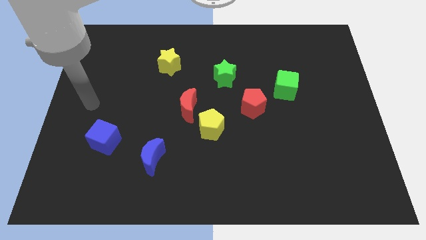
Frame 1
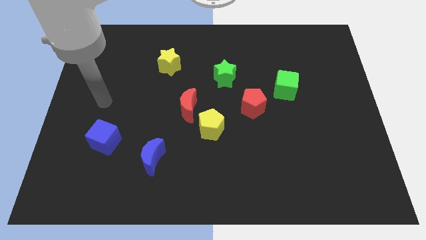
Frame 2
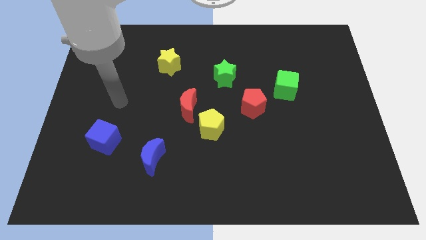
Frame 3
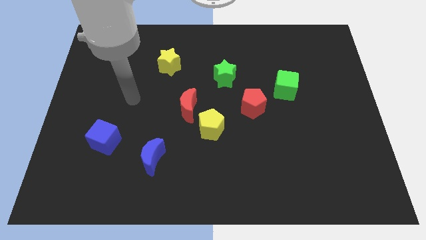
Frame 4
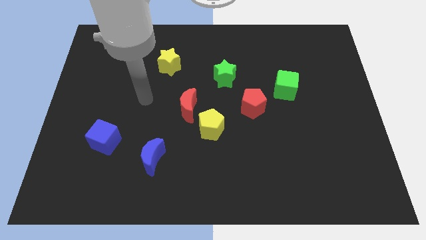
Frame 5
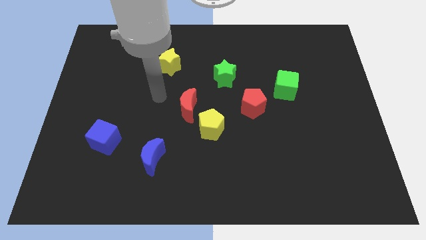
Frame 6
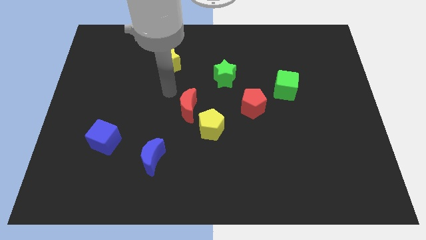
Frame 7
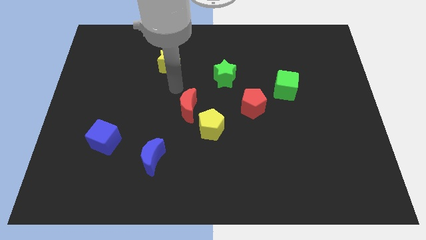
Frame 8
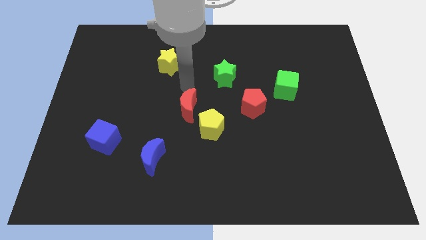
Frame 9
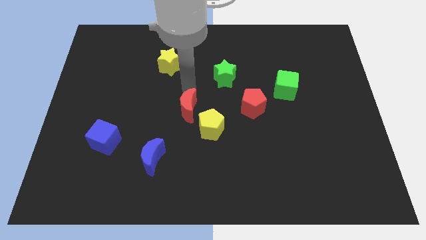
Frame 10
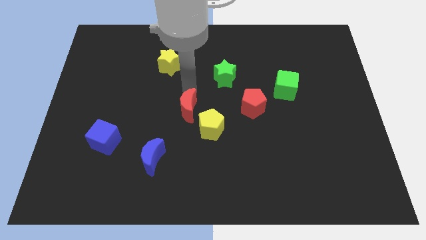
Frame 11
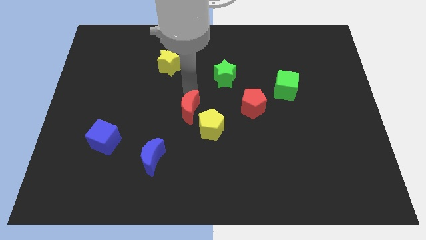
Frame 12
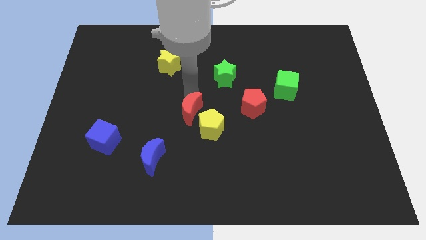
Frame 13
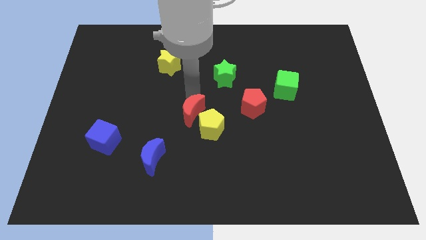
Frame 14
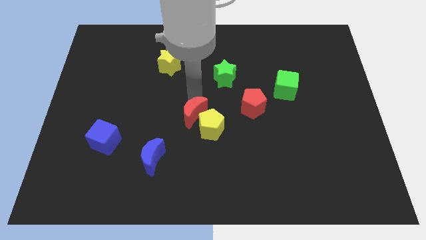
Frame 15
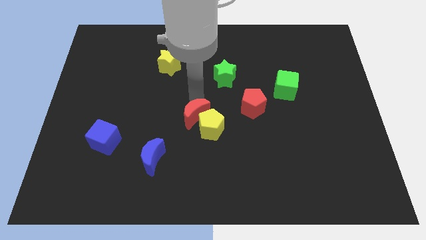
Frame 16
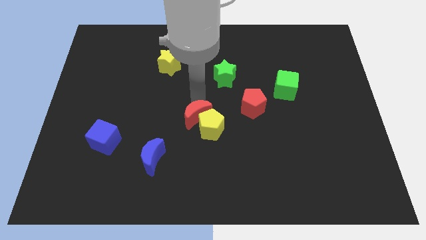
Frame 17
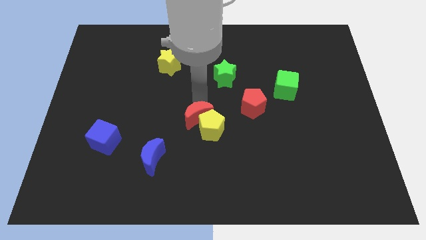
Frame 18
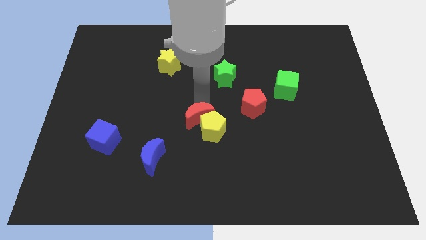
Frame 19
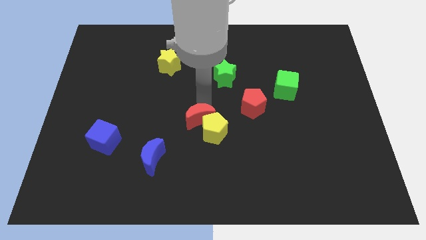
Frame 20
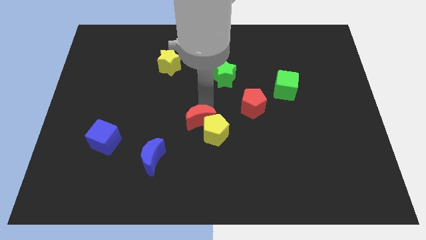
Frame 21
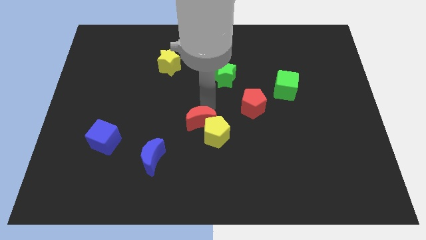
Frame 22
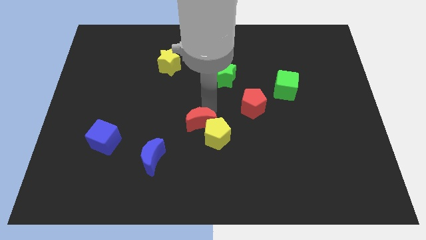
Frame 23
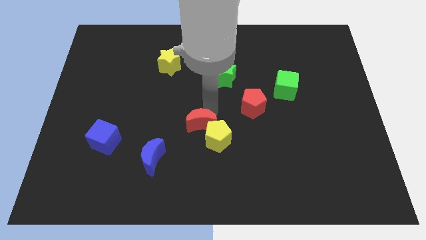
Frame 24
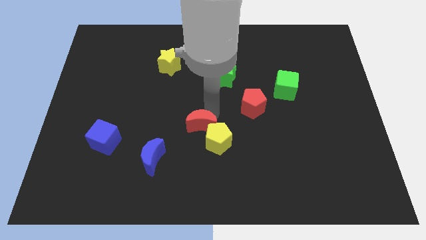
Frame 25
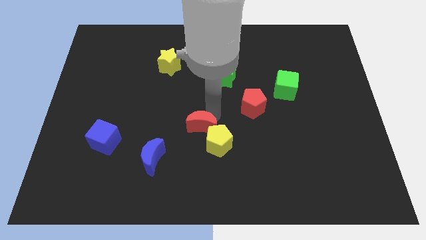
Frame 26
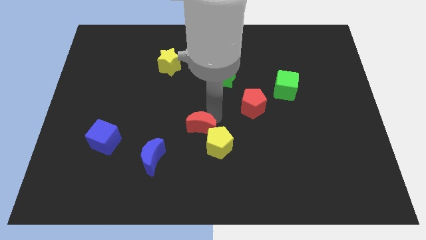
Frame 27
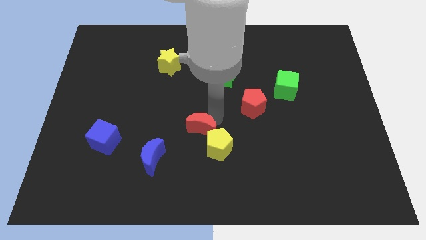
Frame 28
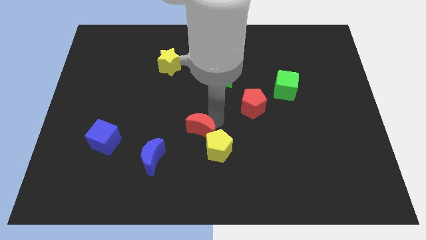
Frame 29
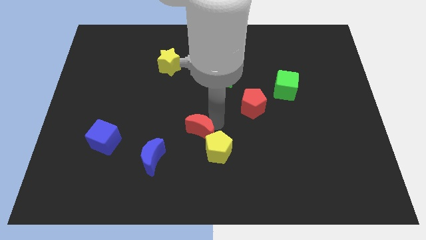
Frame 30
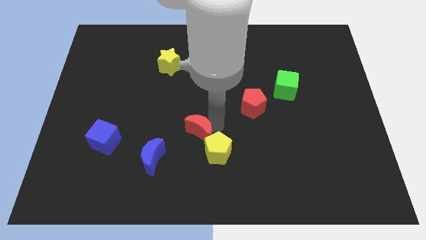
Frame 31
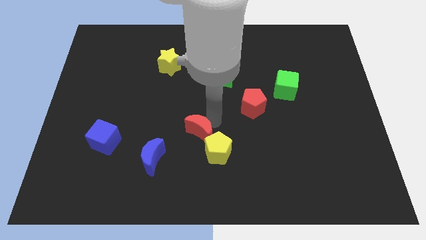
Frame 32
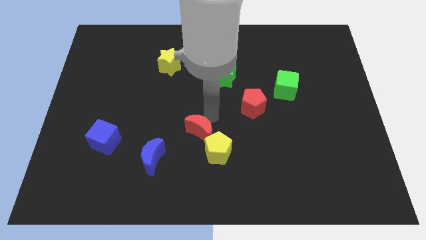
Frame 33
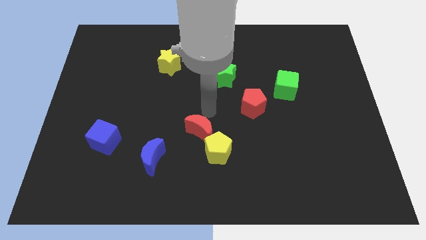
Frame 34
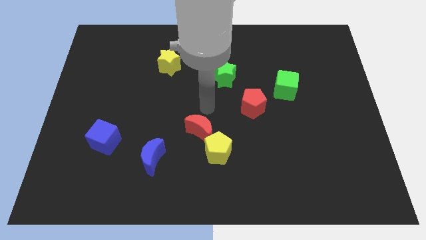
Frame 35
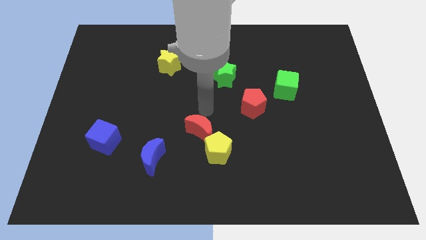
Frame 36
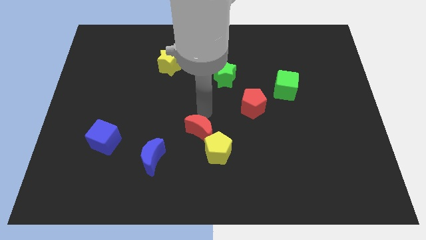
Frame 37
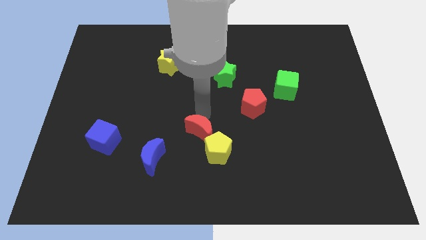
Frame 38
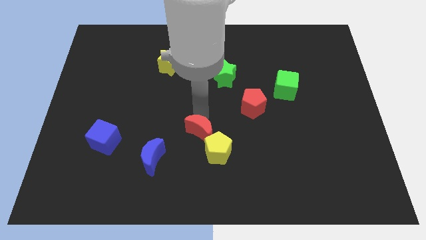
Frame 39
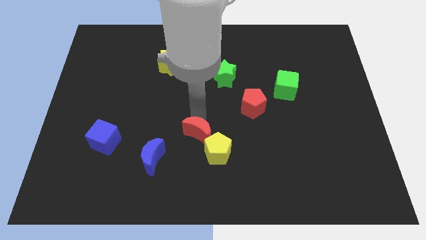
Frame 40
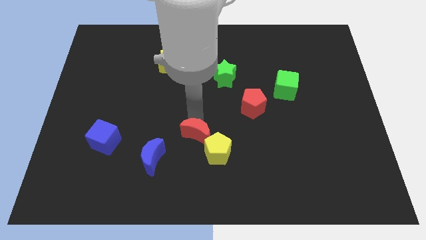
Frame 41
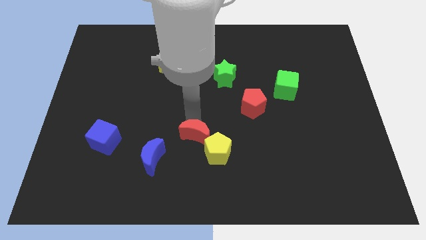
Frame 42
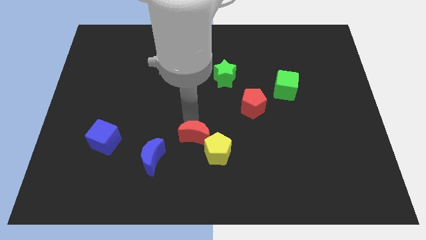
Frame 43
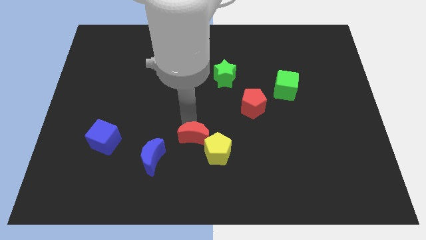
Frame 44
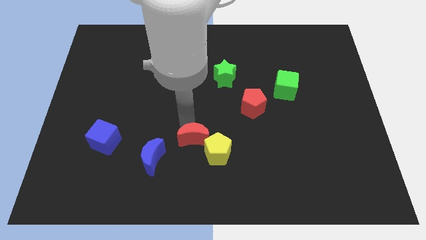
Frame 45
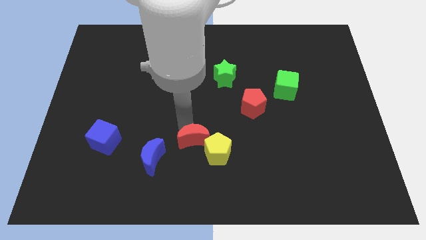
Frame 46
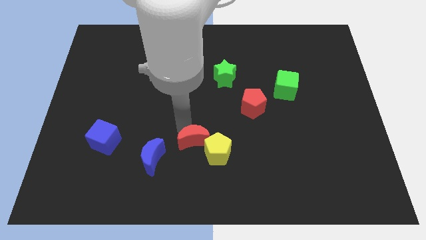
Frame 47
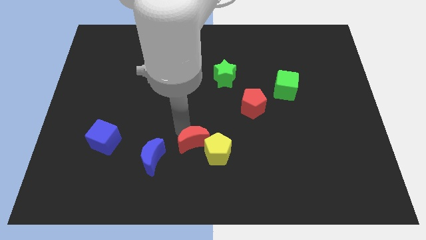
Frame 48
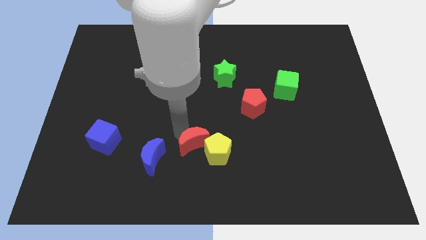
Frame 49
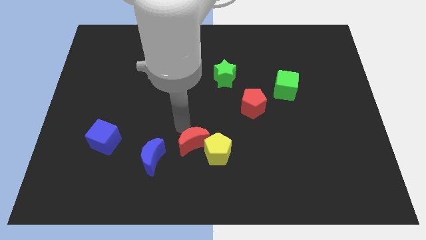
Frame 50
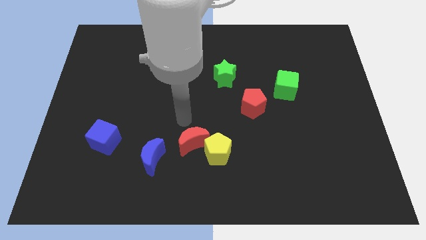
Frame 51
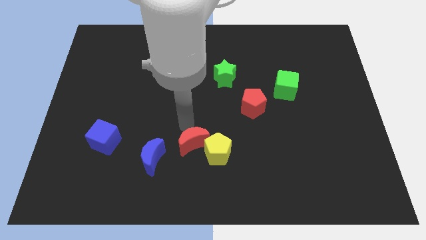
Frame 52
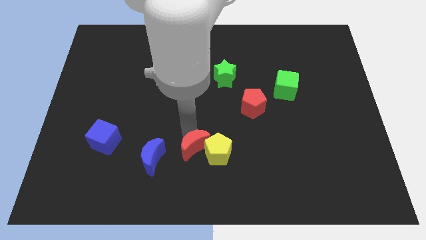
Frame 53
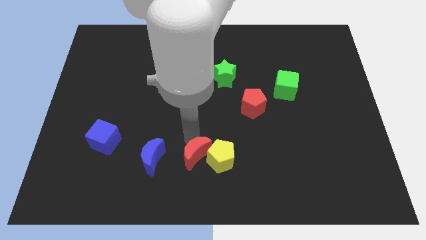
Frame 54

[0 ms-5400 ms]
push the red moon to the bottom

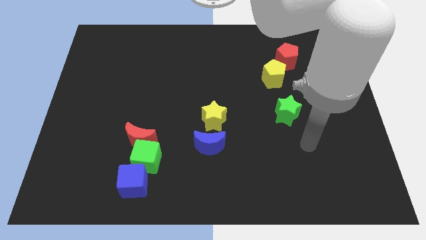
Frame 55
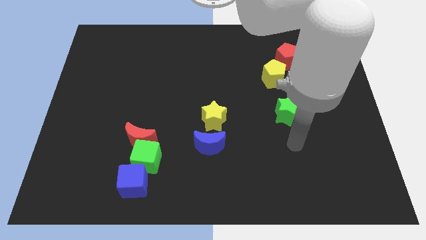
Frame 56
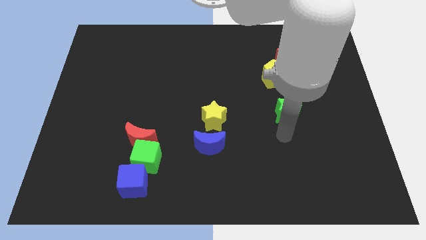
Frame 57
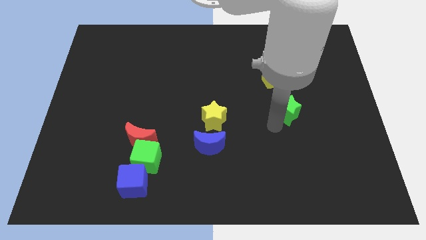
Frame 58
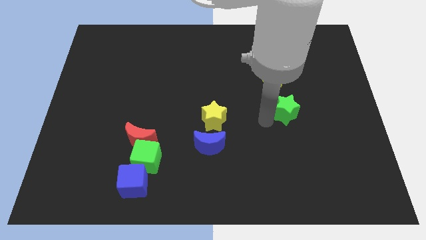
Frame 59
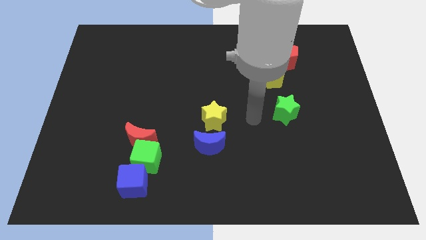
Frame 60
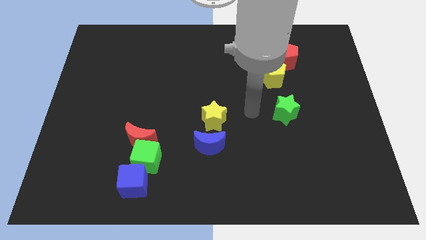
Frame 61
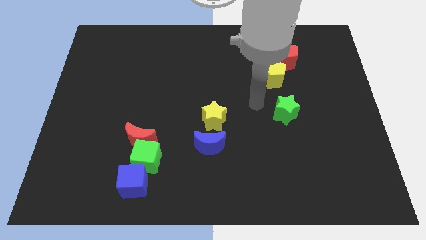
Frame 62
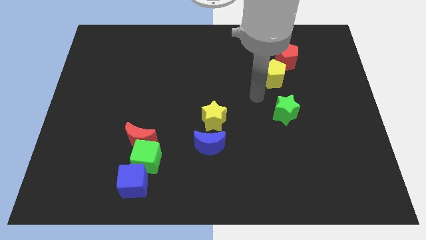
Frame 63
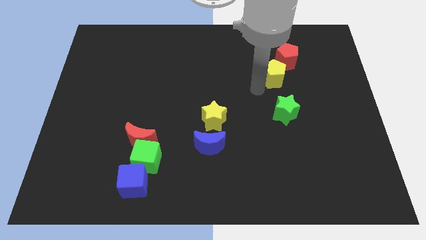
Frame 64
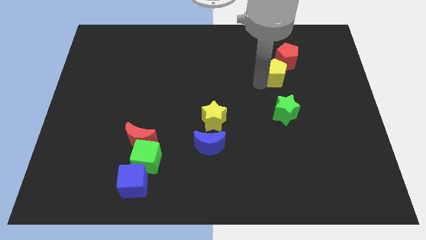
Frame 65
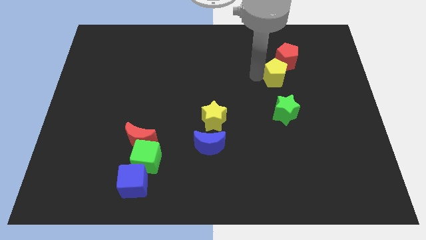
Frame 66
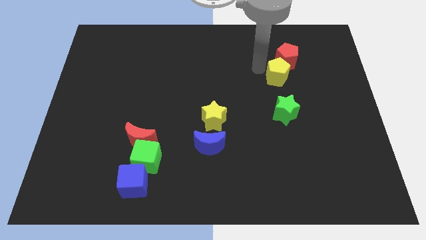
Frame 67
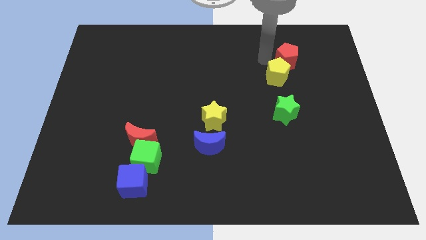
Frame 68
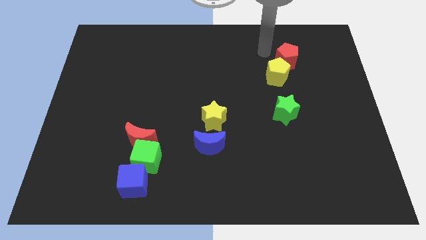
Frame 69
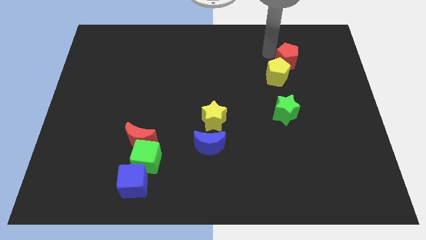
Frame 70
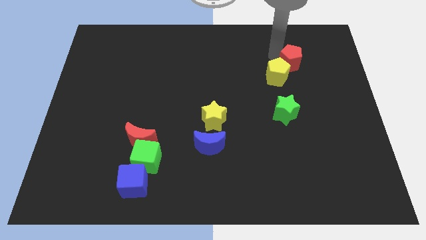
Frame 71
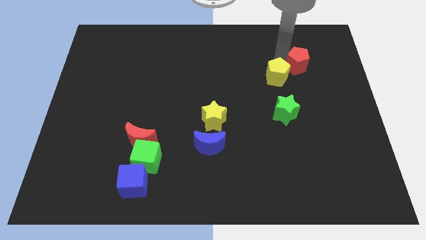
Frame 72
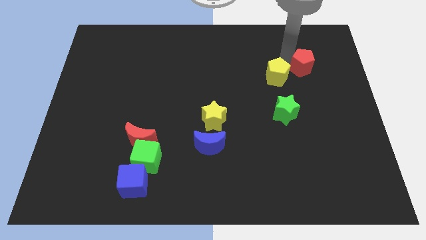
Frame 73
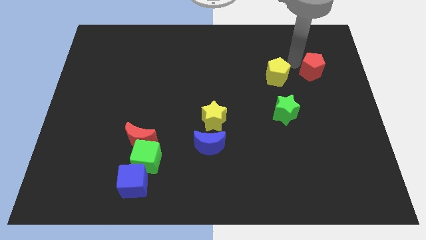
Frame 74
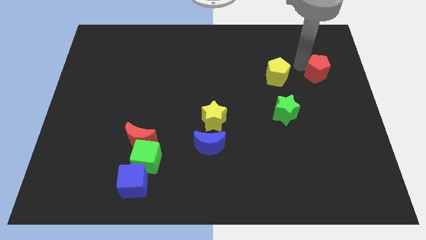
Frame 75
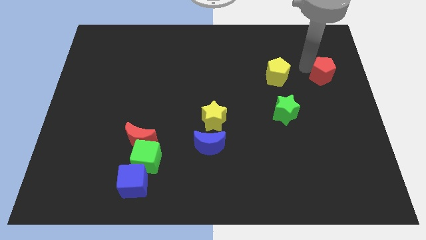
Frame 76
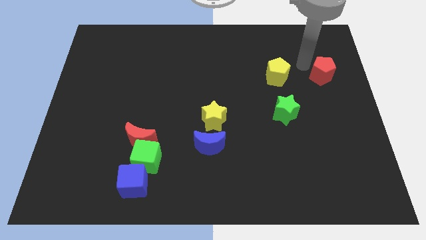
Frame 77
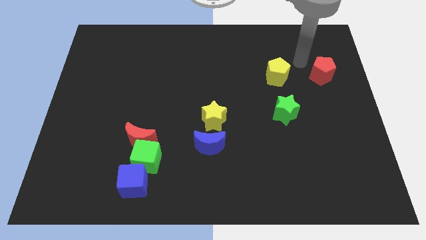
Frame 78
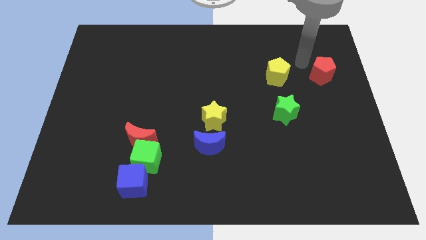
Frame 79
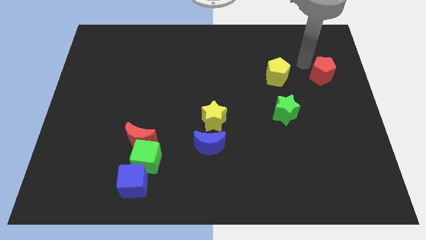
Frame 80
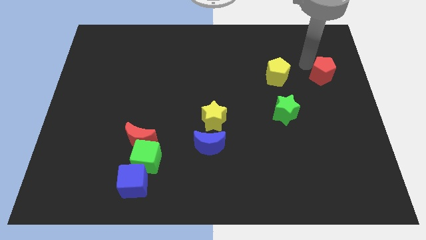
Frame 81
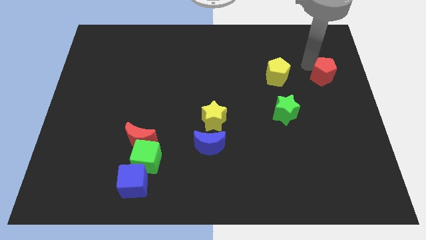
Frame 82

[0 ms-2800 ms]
put the red pentagon to the right side
